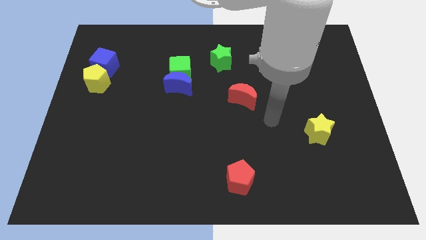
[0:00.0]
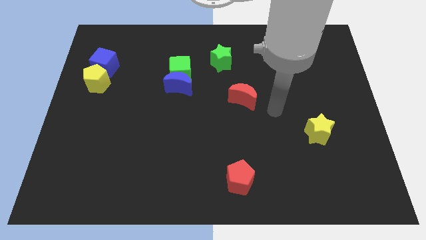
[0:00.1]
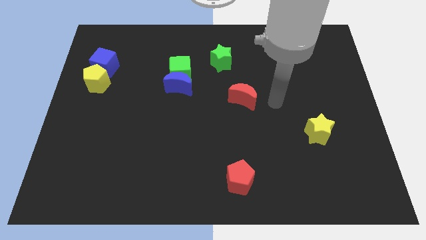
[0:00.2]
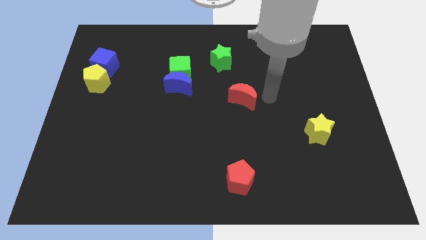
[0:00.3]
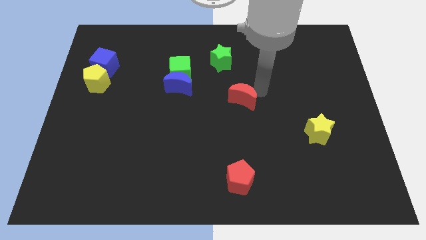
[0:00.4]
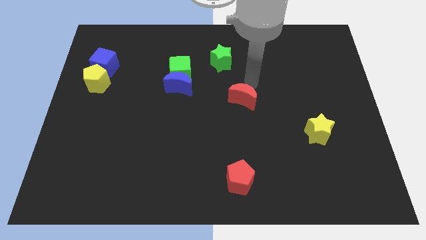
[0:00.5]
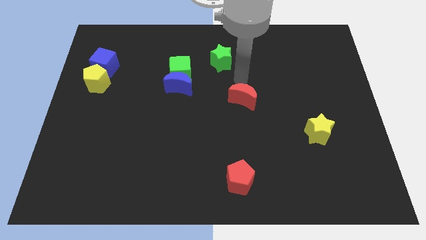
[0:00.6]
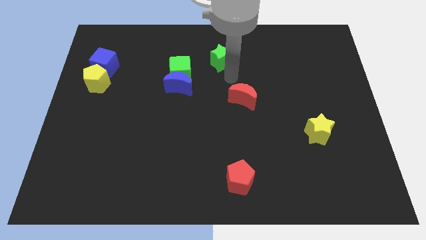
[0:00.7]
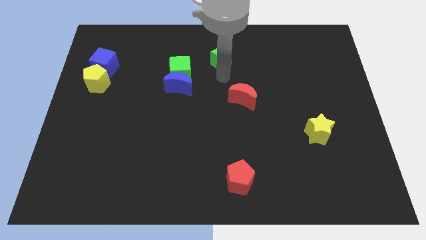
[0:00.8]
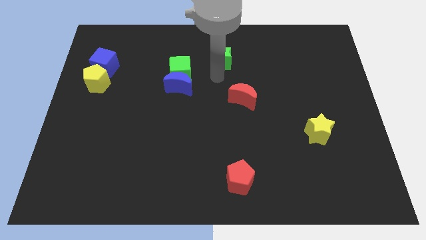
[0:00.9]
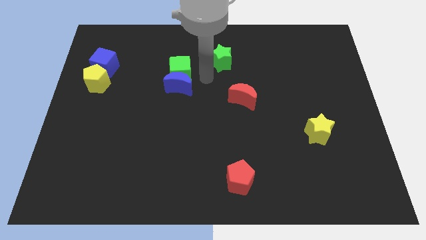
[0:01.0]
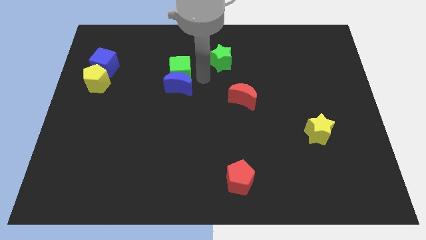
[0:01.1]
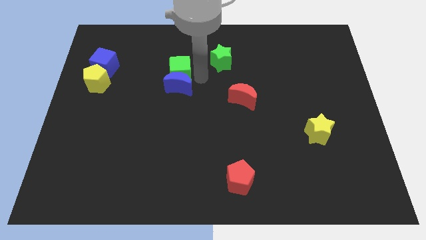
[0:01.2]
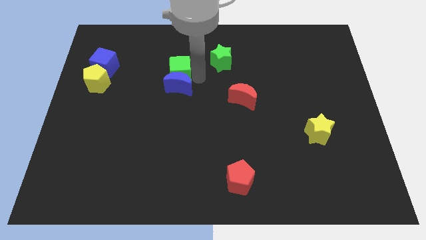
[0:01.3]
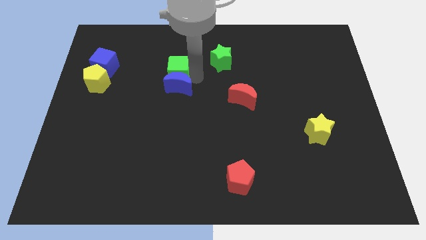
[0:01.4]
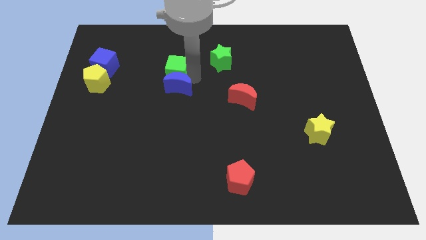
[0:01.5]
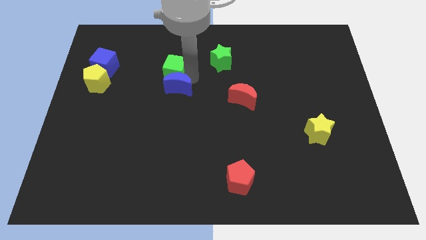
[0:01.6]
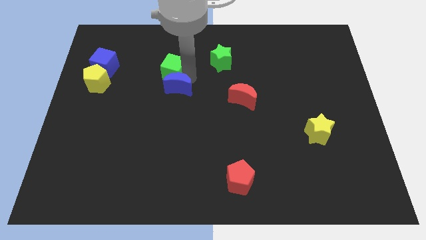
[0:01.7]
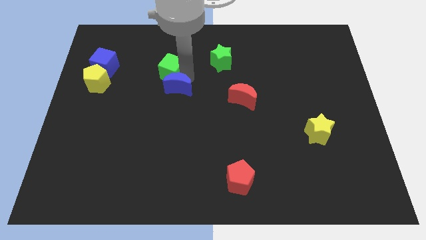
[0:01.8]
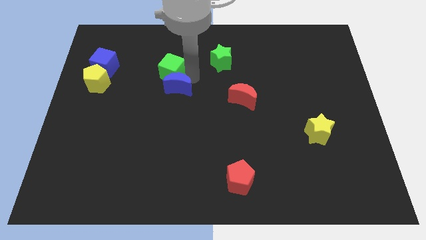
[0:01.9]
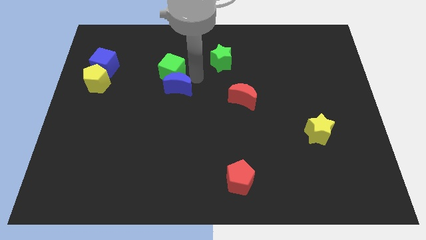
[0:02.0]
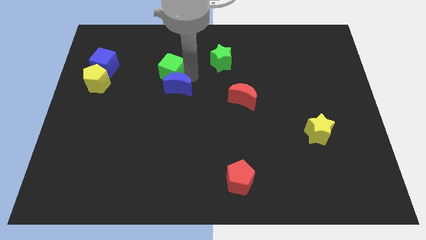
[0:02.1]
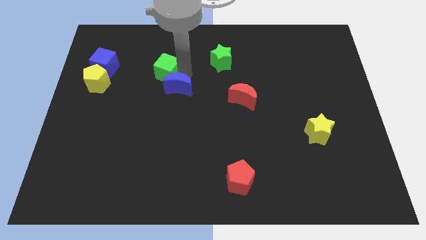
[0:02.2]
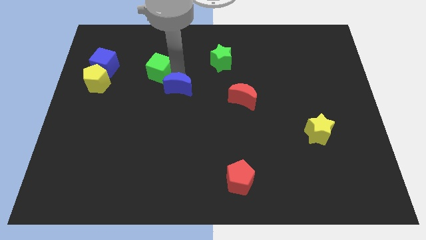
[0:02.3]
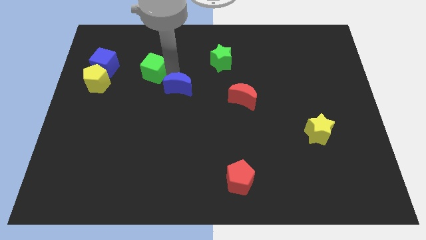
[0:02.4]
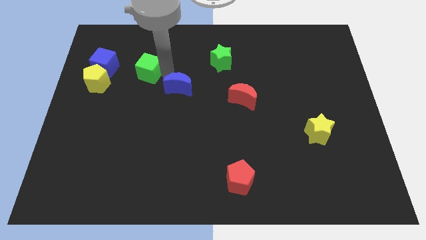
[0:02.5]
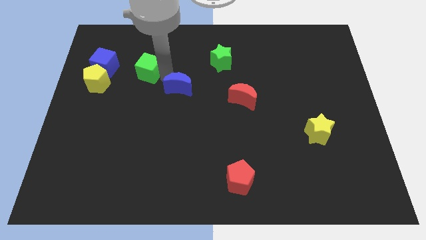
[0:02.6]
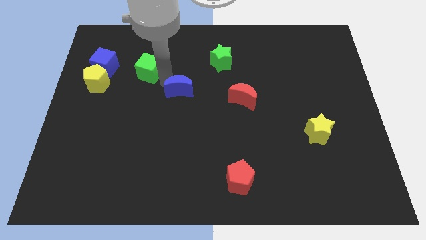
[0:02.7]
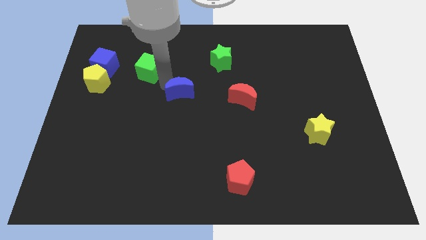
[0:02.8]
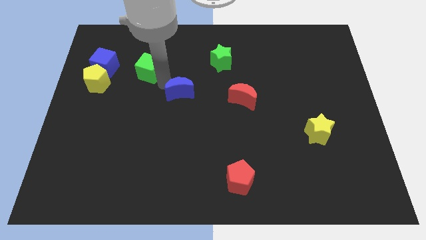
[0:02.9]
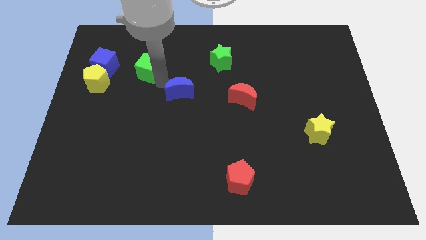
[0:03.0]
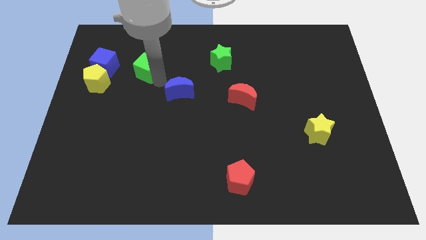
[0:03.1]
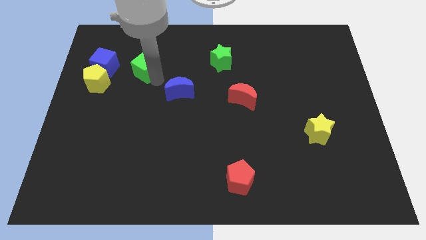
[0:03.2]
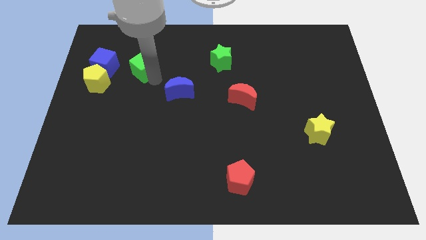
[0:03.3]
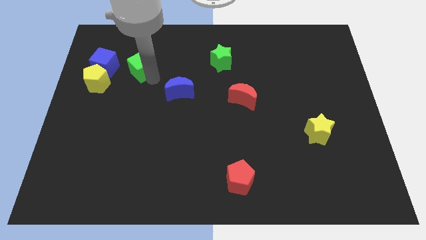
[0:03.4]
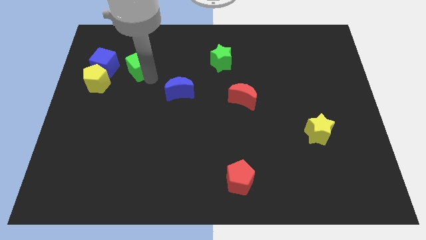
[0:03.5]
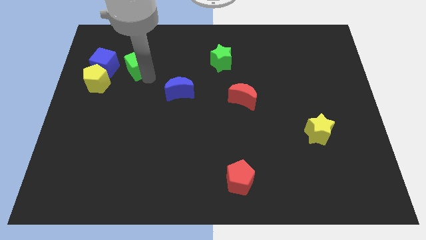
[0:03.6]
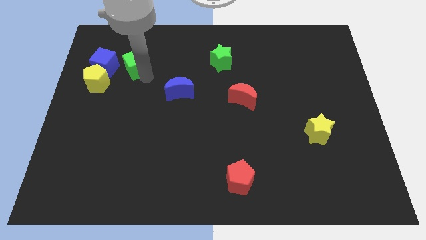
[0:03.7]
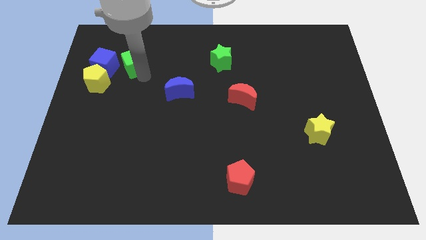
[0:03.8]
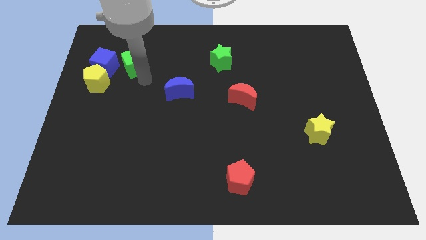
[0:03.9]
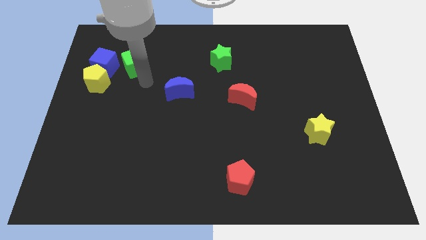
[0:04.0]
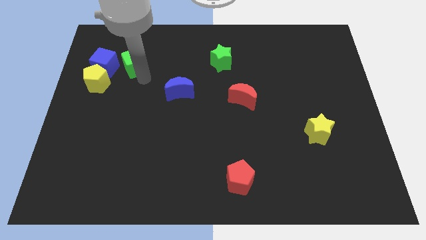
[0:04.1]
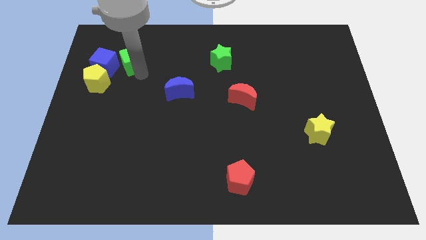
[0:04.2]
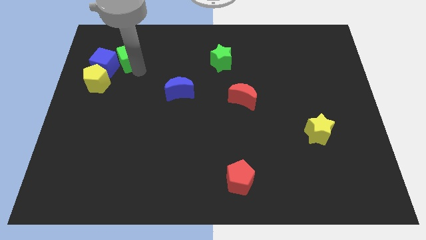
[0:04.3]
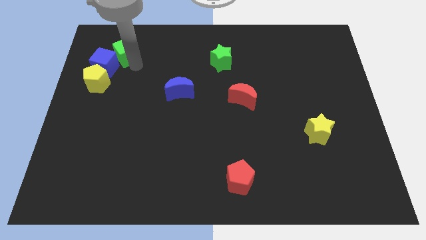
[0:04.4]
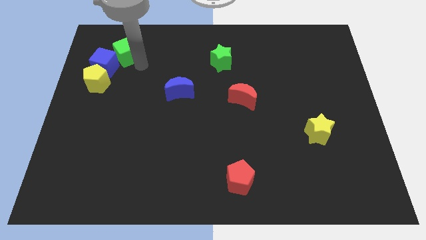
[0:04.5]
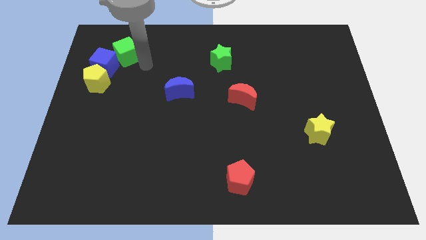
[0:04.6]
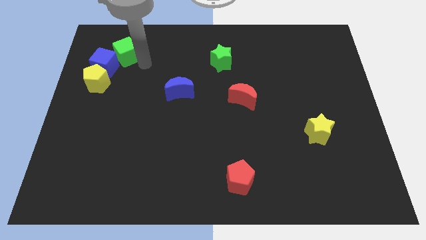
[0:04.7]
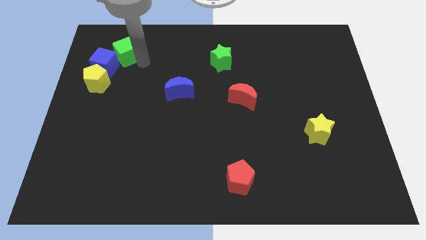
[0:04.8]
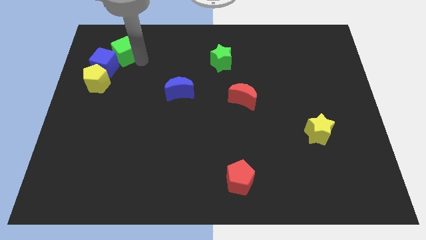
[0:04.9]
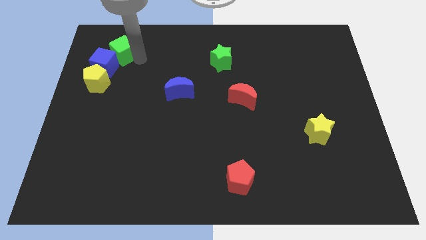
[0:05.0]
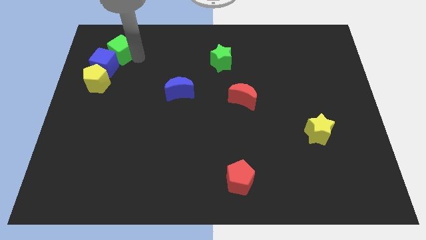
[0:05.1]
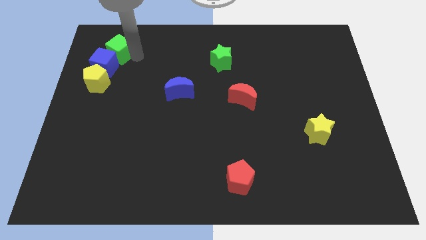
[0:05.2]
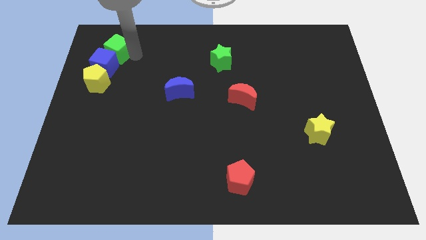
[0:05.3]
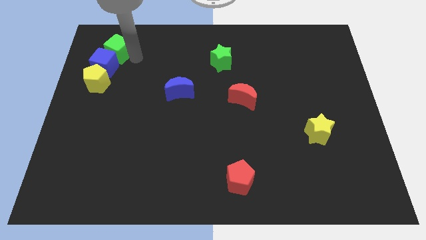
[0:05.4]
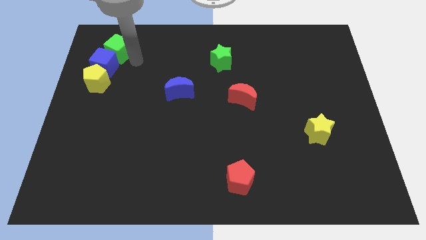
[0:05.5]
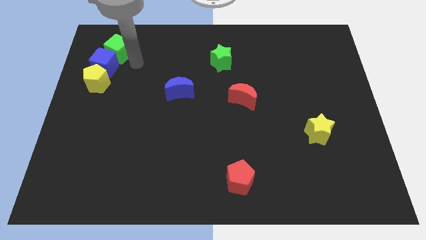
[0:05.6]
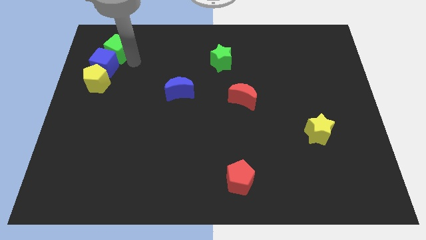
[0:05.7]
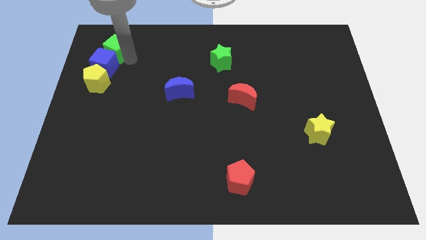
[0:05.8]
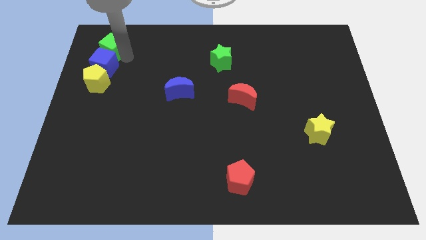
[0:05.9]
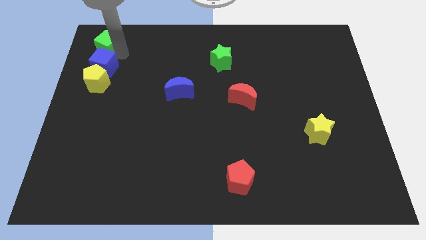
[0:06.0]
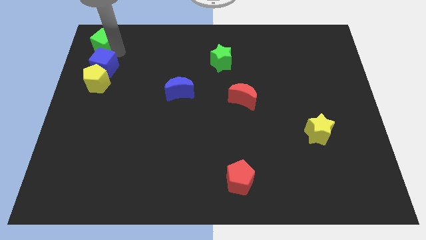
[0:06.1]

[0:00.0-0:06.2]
push the green cube to the upper left corner
